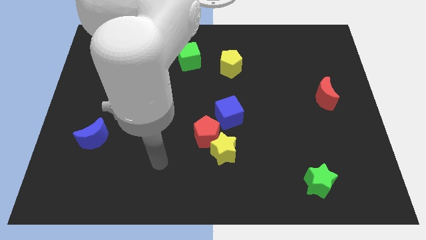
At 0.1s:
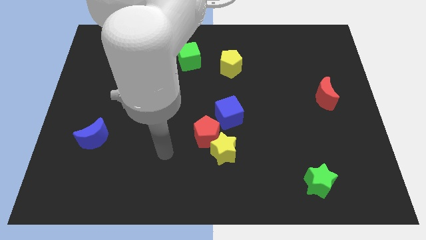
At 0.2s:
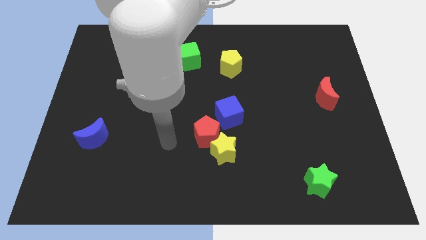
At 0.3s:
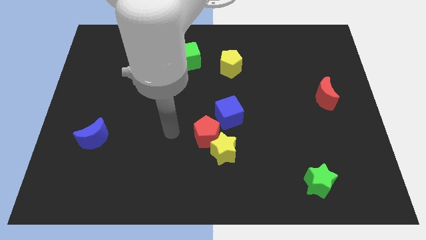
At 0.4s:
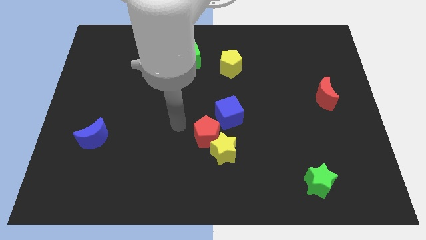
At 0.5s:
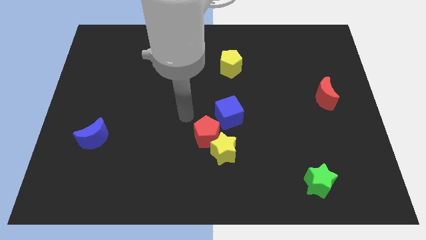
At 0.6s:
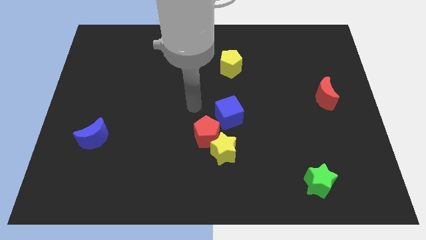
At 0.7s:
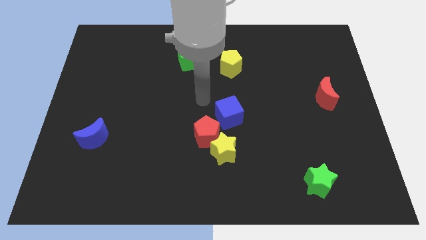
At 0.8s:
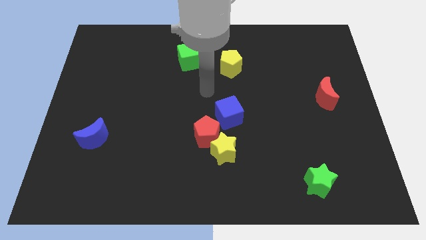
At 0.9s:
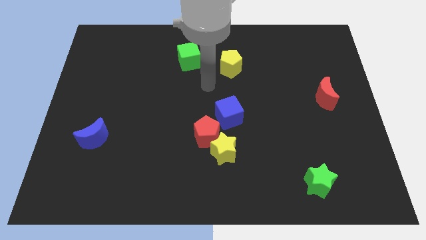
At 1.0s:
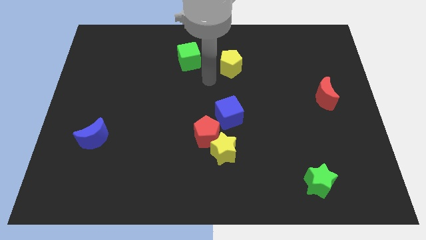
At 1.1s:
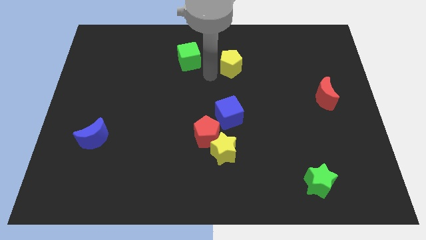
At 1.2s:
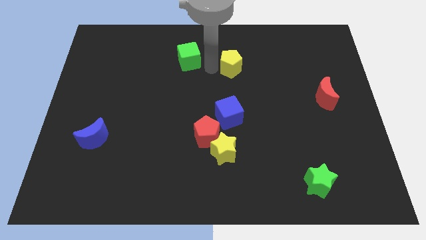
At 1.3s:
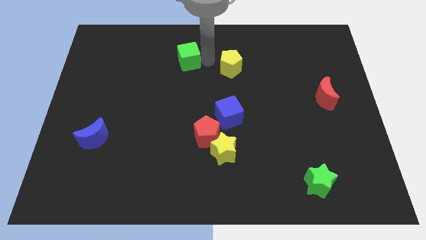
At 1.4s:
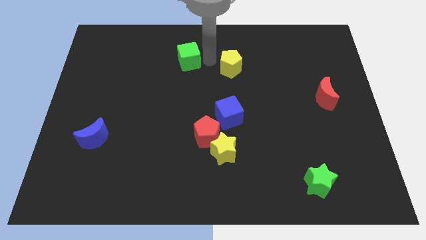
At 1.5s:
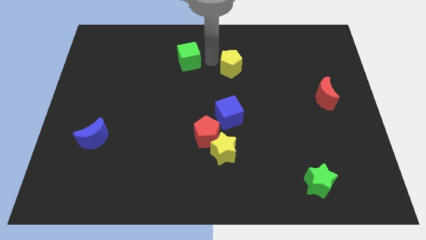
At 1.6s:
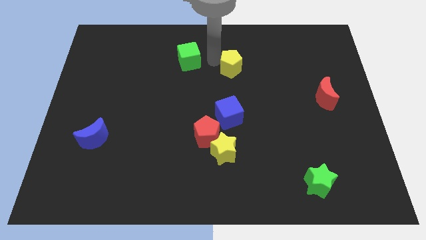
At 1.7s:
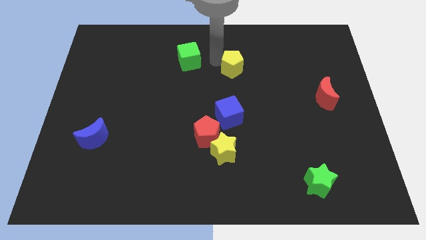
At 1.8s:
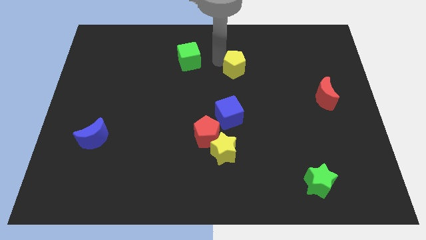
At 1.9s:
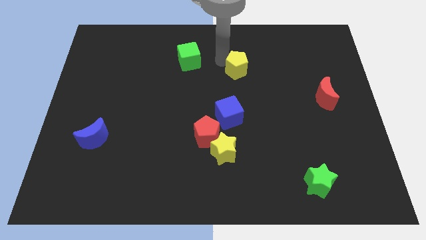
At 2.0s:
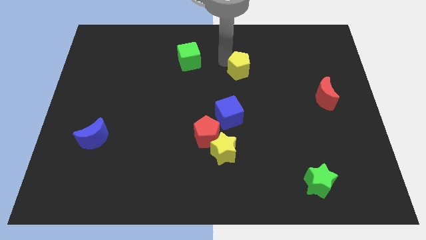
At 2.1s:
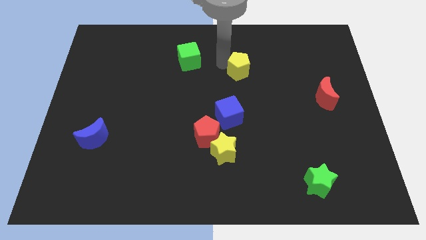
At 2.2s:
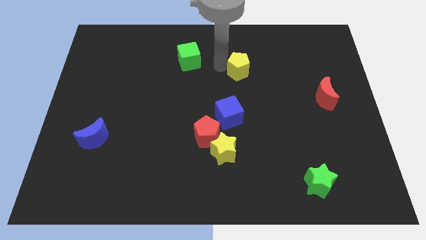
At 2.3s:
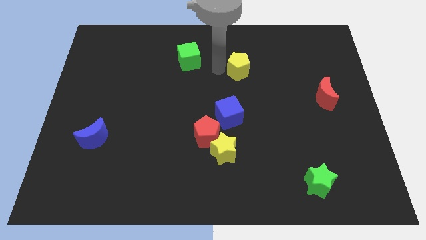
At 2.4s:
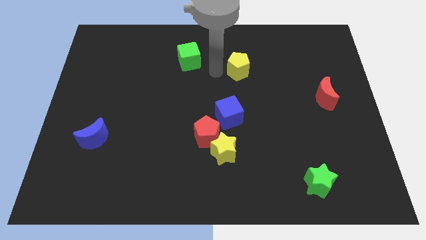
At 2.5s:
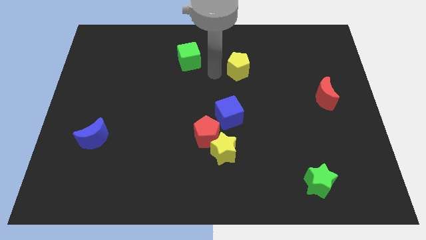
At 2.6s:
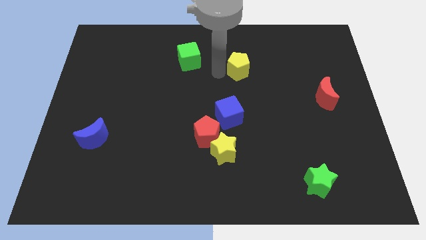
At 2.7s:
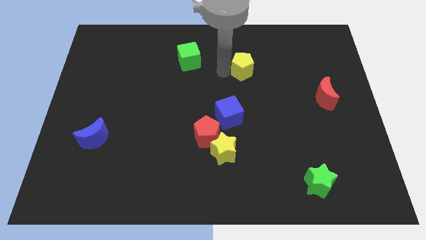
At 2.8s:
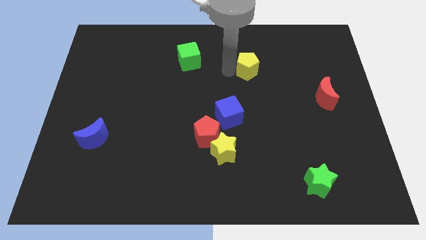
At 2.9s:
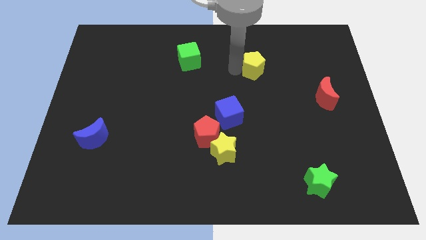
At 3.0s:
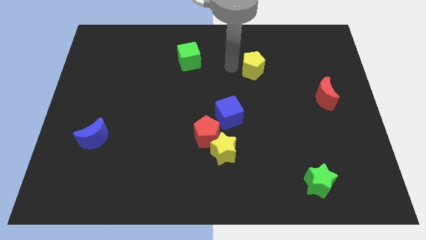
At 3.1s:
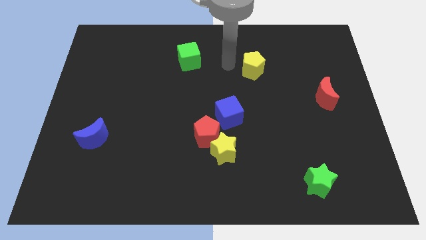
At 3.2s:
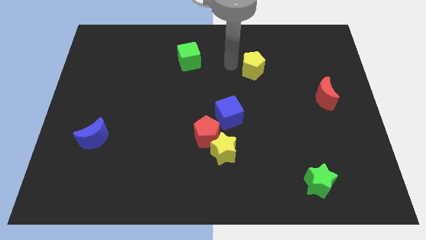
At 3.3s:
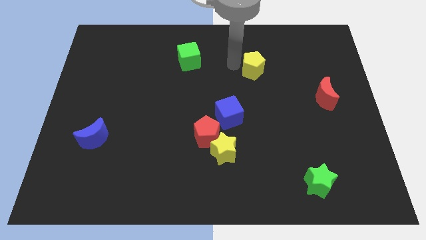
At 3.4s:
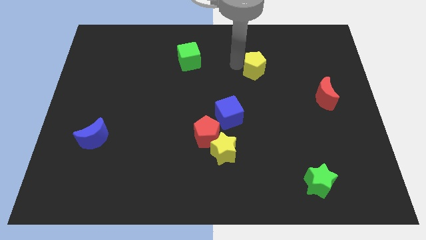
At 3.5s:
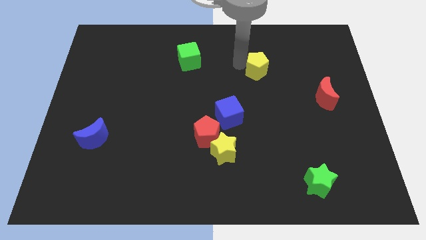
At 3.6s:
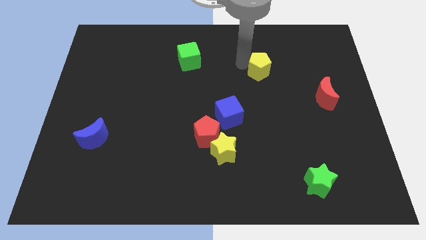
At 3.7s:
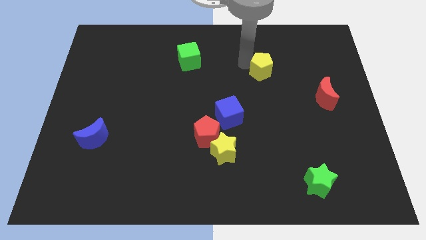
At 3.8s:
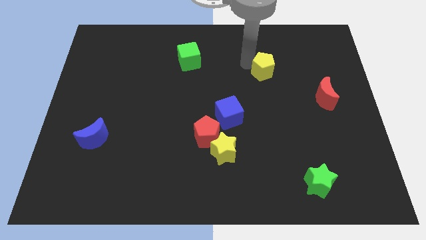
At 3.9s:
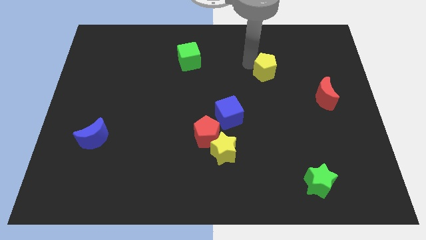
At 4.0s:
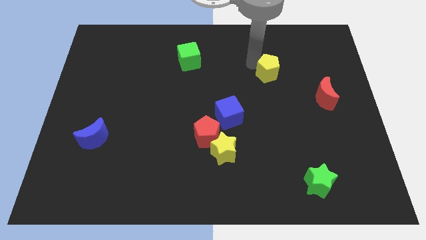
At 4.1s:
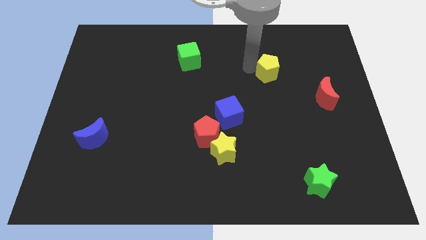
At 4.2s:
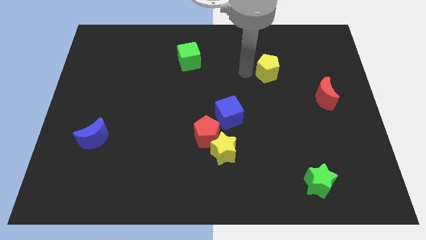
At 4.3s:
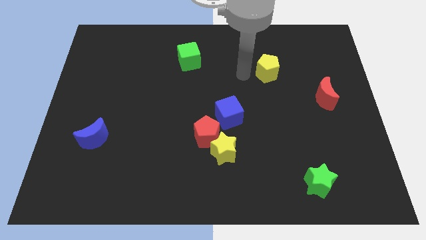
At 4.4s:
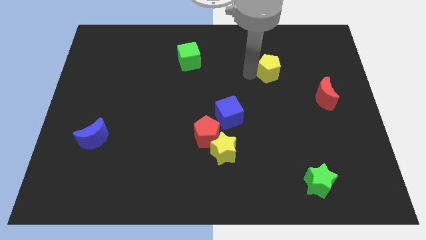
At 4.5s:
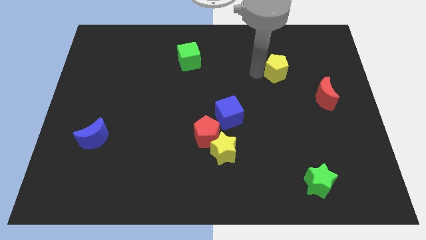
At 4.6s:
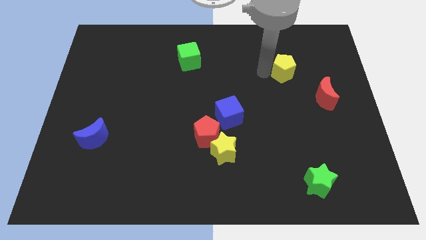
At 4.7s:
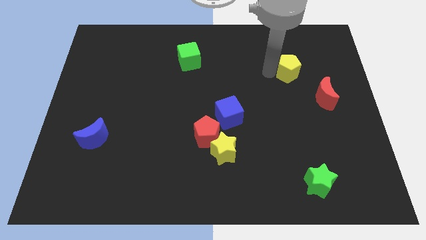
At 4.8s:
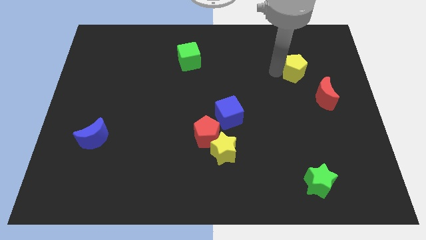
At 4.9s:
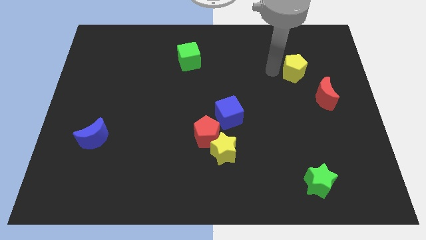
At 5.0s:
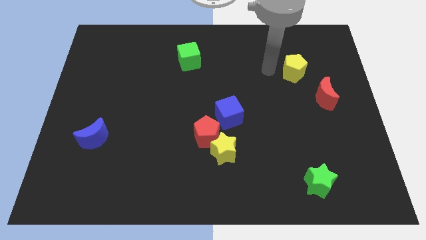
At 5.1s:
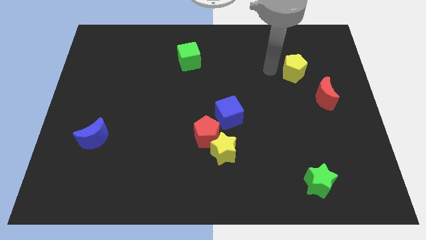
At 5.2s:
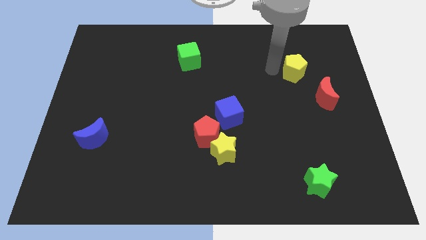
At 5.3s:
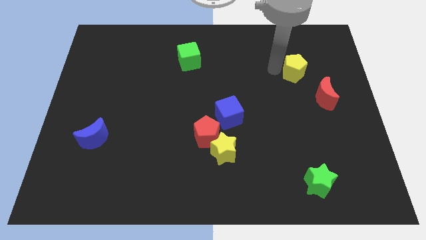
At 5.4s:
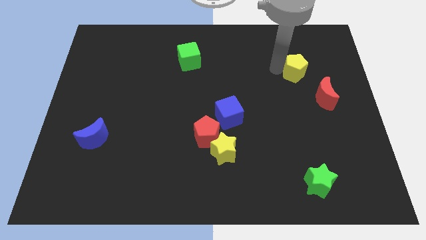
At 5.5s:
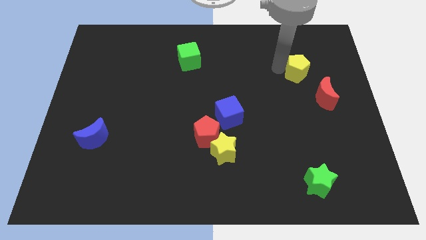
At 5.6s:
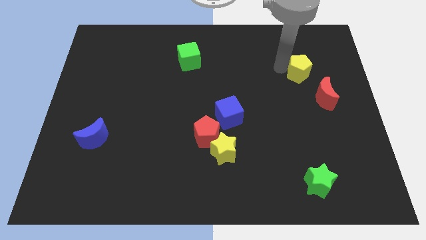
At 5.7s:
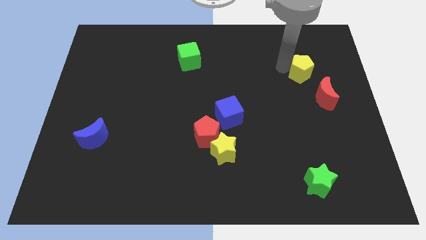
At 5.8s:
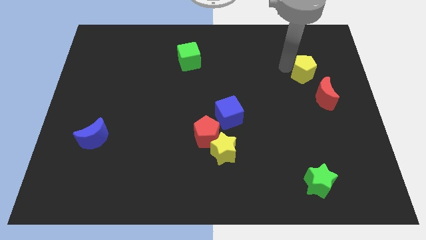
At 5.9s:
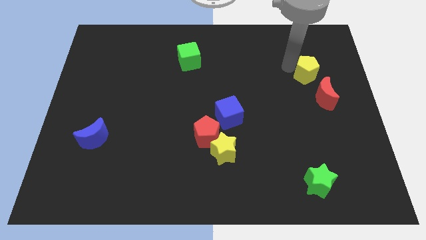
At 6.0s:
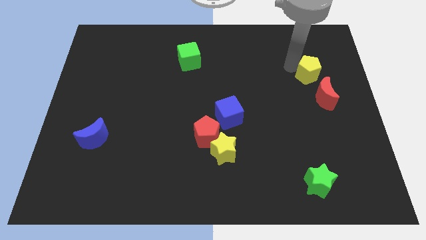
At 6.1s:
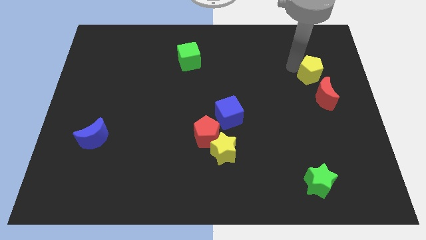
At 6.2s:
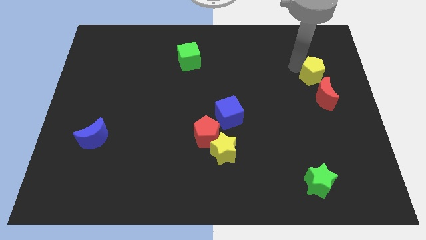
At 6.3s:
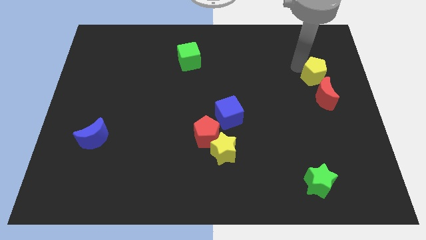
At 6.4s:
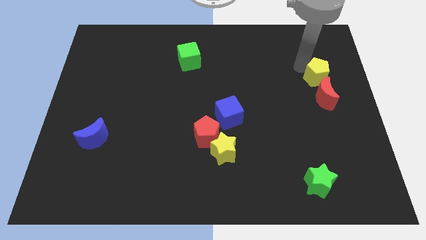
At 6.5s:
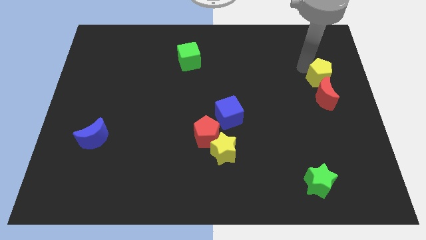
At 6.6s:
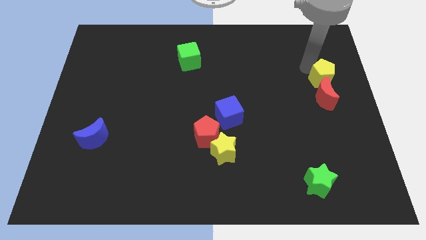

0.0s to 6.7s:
move the yellow pentagon to the right side
